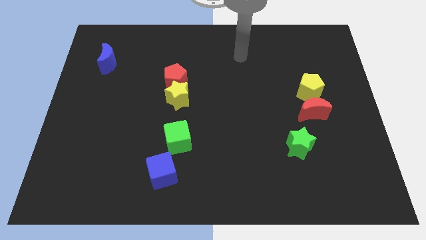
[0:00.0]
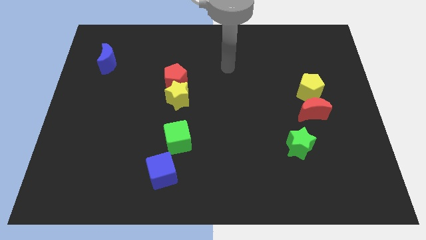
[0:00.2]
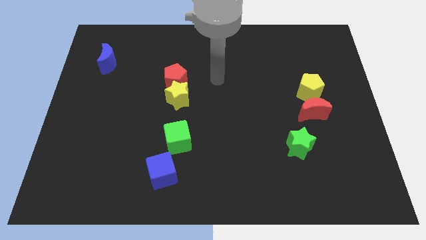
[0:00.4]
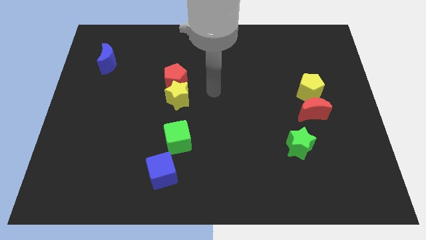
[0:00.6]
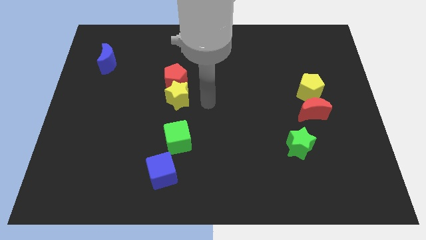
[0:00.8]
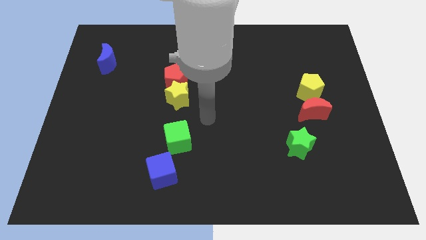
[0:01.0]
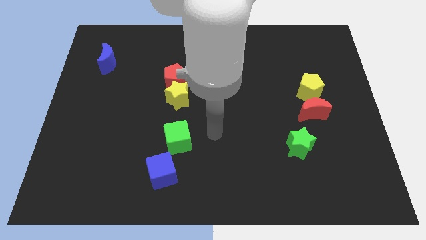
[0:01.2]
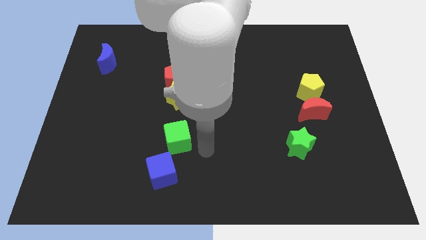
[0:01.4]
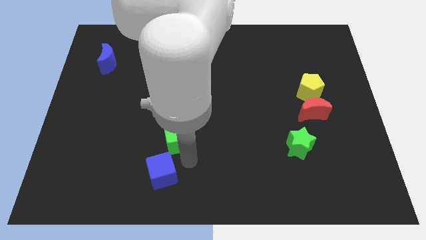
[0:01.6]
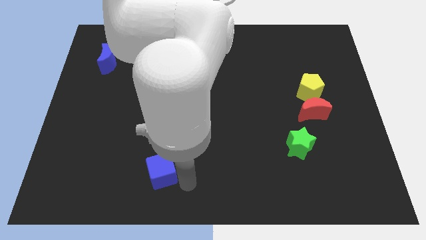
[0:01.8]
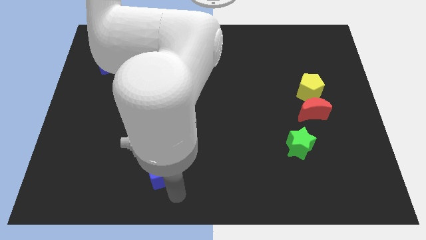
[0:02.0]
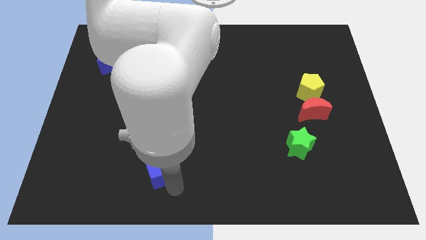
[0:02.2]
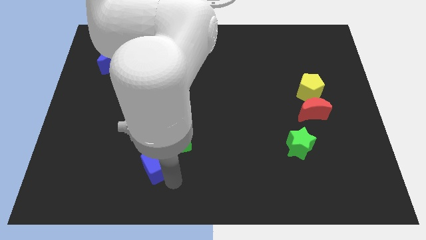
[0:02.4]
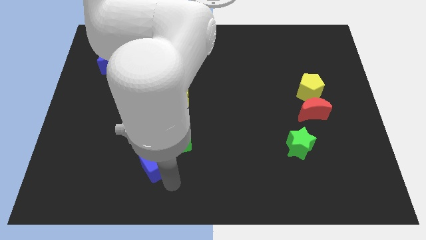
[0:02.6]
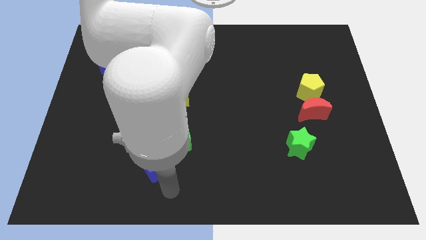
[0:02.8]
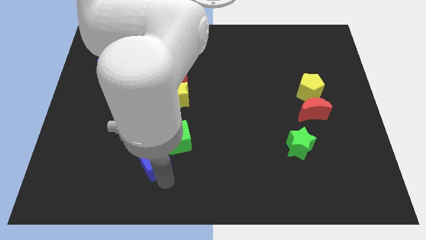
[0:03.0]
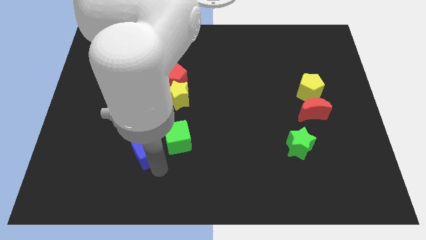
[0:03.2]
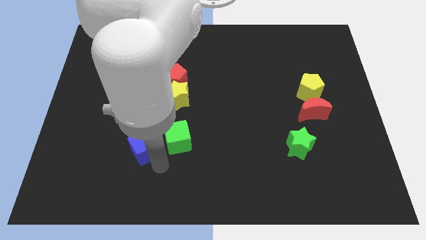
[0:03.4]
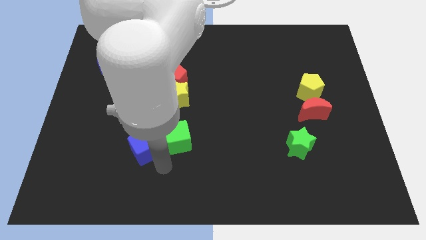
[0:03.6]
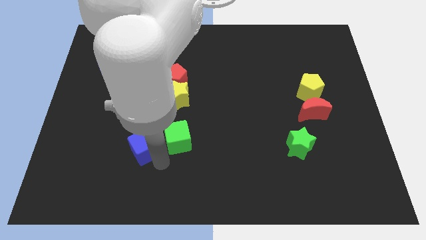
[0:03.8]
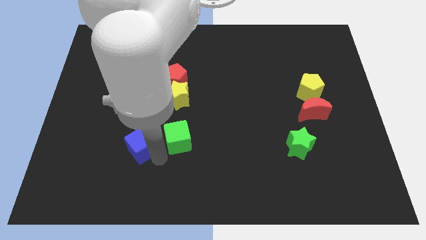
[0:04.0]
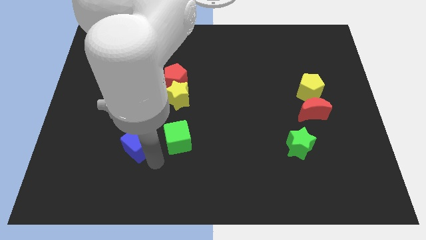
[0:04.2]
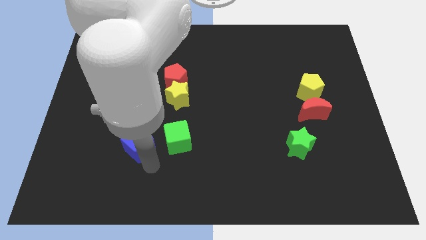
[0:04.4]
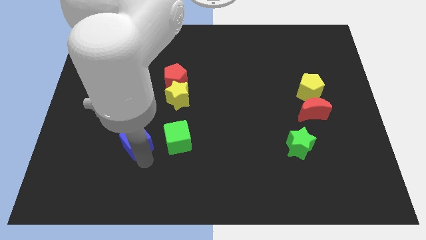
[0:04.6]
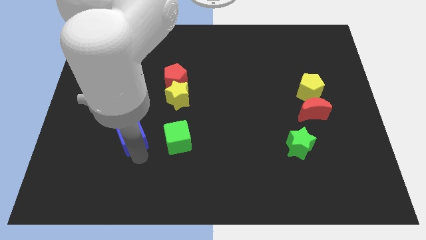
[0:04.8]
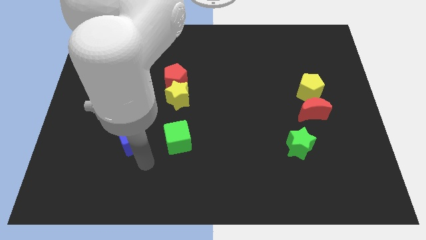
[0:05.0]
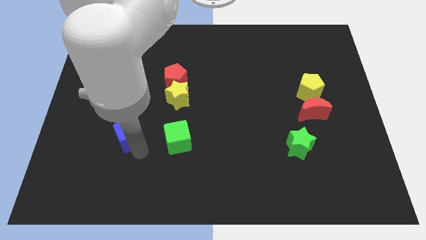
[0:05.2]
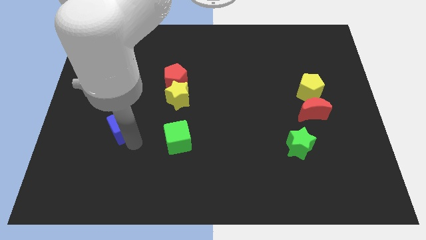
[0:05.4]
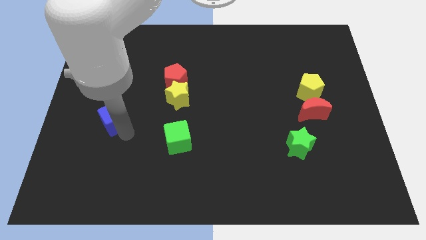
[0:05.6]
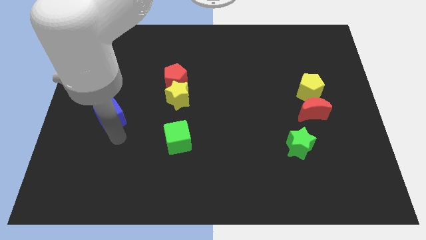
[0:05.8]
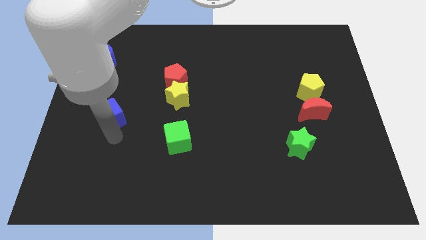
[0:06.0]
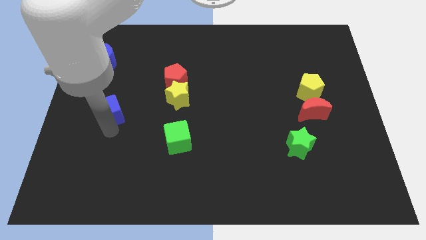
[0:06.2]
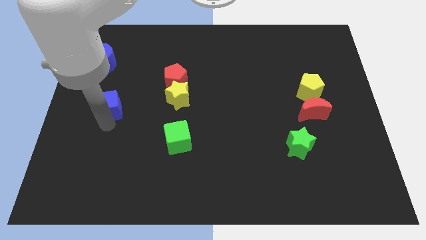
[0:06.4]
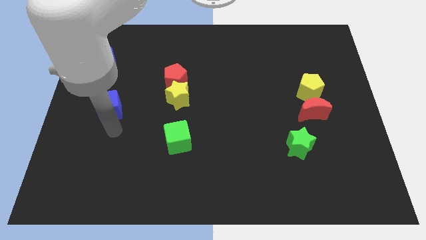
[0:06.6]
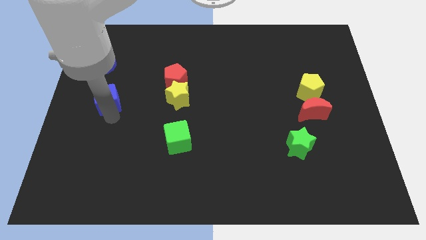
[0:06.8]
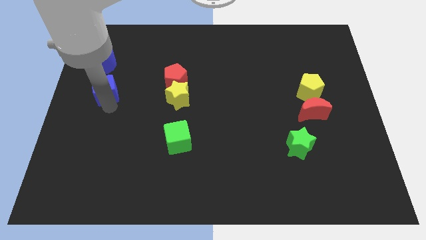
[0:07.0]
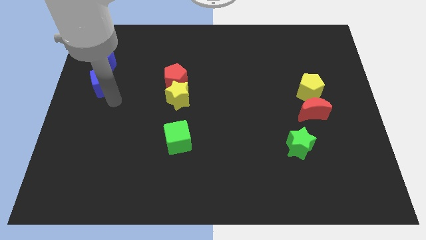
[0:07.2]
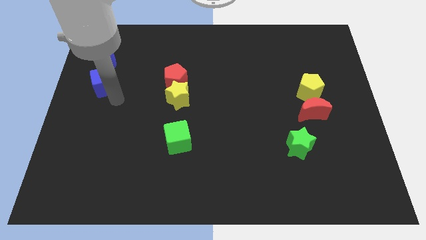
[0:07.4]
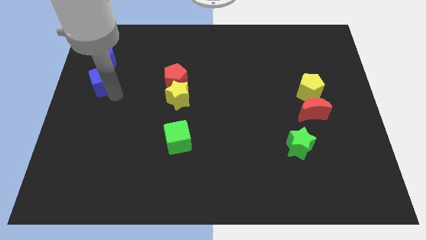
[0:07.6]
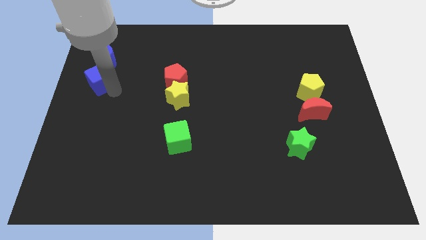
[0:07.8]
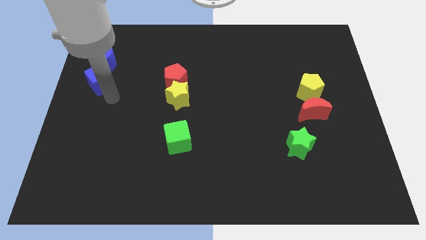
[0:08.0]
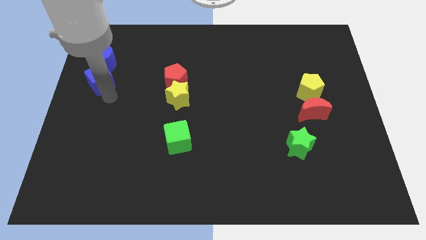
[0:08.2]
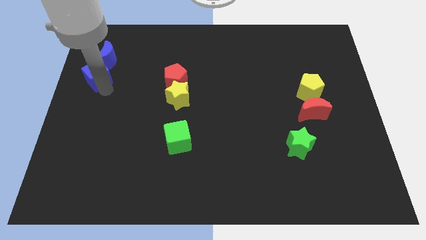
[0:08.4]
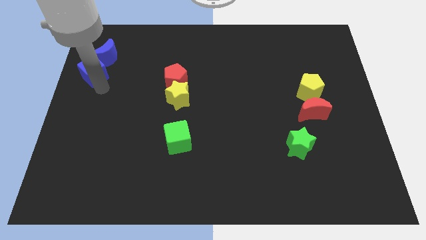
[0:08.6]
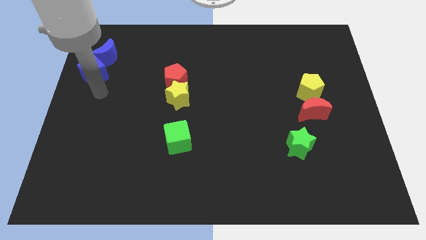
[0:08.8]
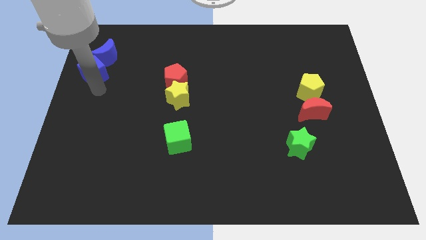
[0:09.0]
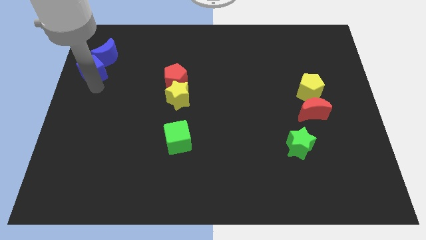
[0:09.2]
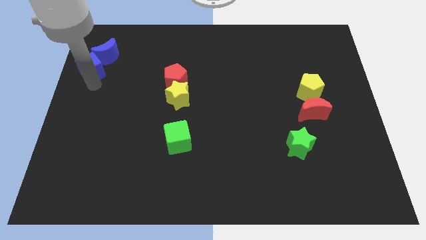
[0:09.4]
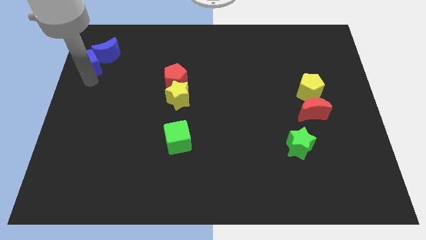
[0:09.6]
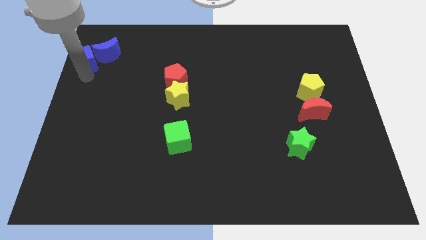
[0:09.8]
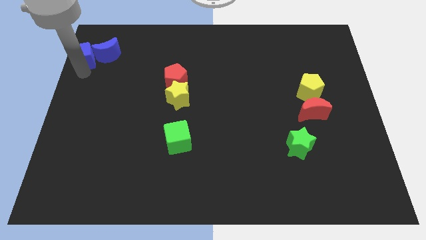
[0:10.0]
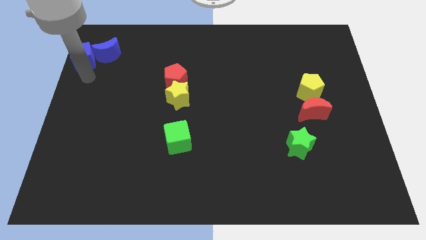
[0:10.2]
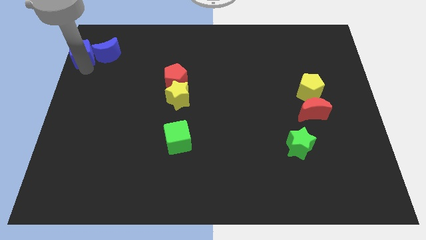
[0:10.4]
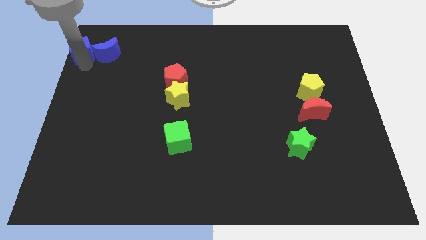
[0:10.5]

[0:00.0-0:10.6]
slide the blue cube to the top left

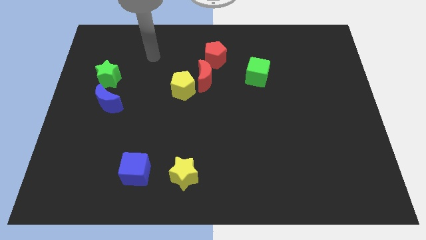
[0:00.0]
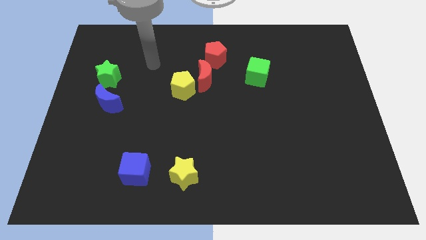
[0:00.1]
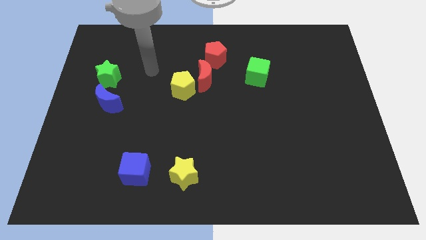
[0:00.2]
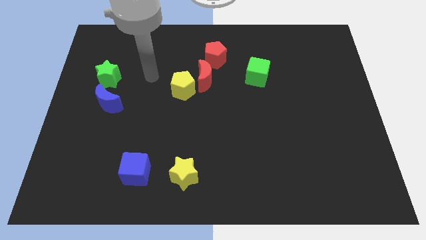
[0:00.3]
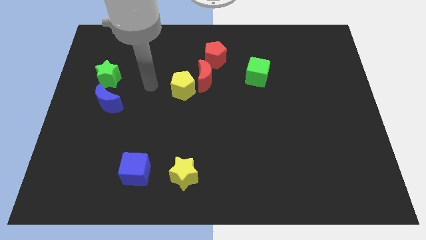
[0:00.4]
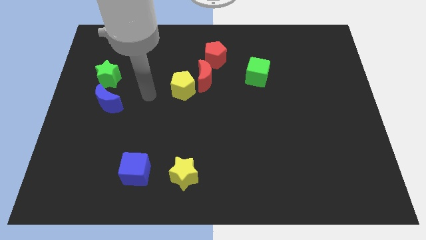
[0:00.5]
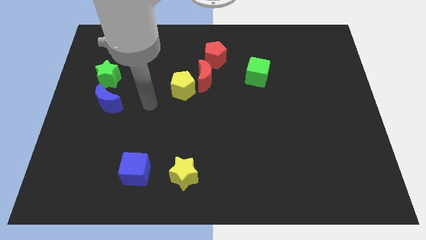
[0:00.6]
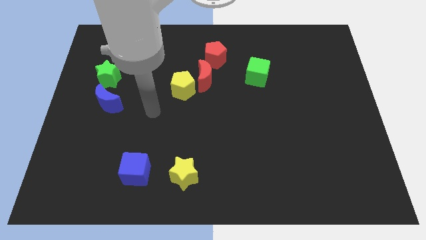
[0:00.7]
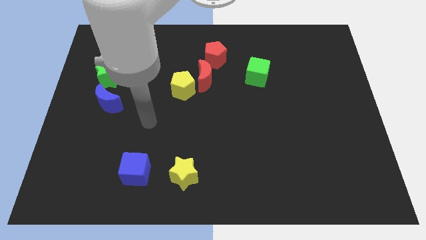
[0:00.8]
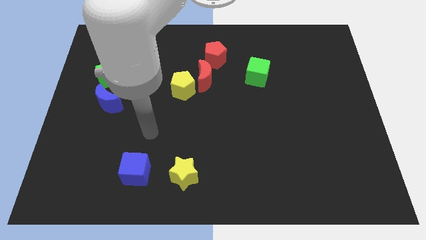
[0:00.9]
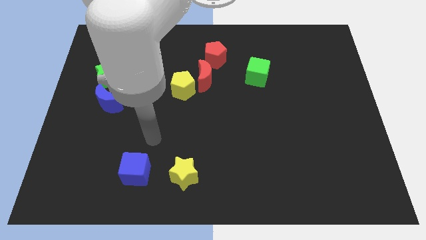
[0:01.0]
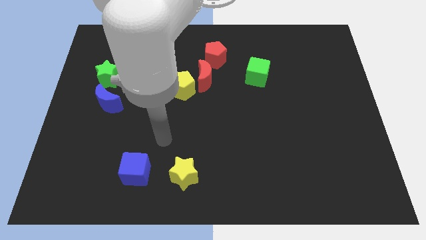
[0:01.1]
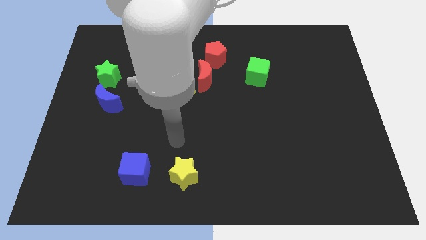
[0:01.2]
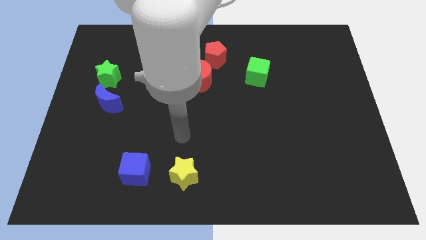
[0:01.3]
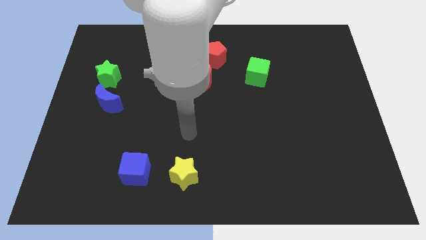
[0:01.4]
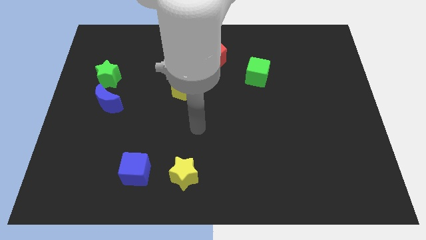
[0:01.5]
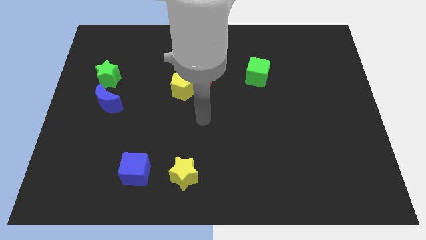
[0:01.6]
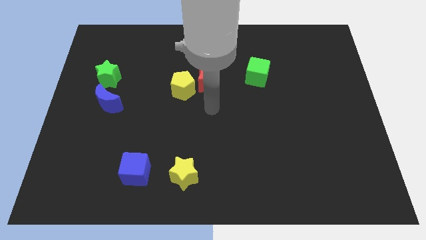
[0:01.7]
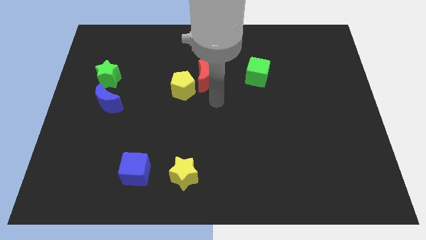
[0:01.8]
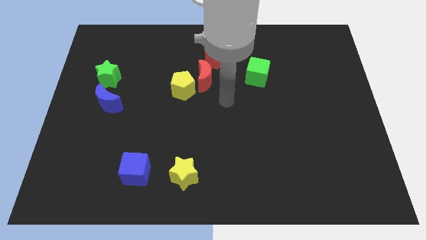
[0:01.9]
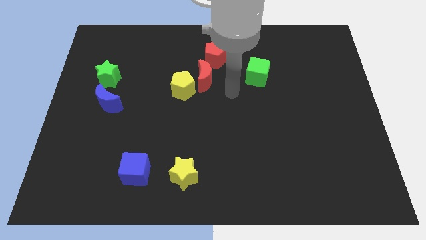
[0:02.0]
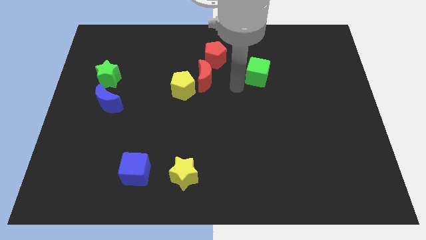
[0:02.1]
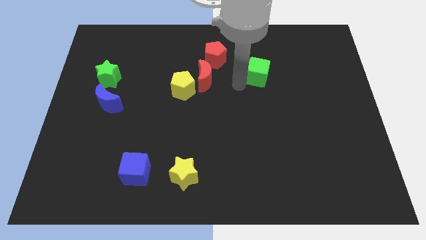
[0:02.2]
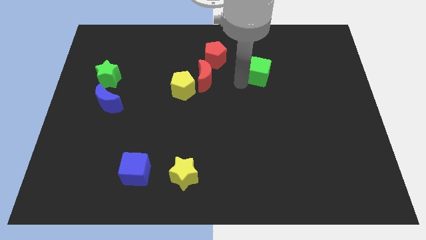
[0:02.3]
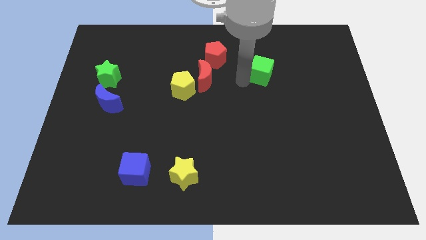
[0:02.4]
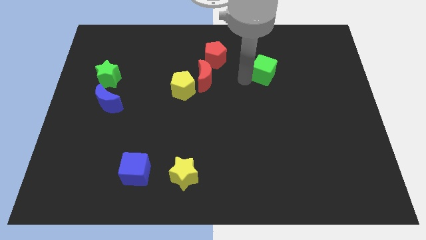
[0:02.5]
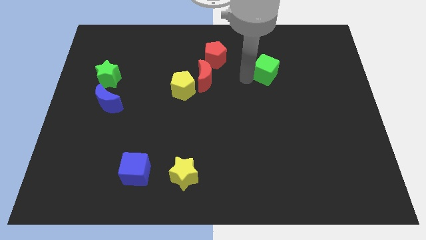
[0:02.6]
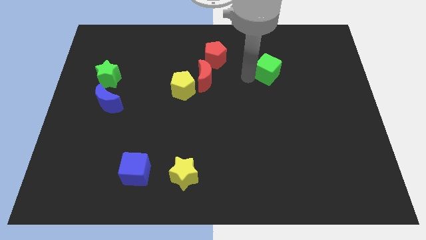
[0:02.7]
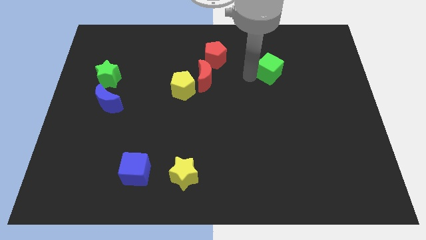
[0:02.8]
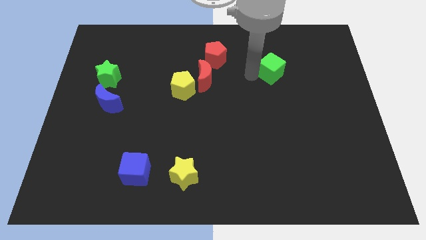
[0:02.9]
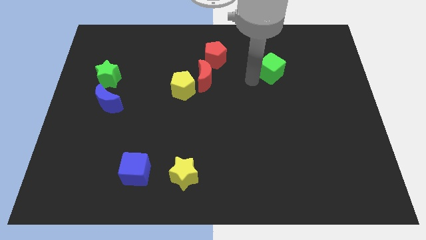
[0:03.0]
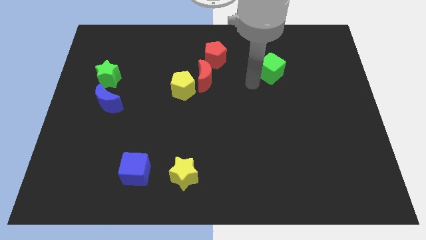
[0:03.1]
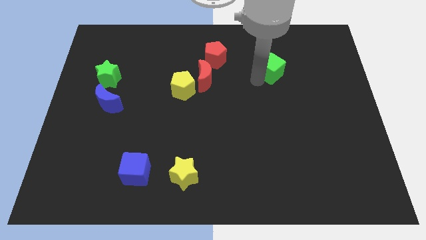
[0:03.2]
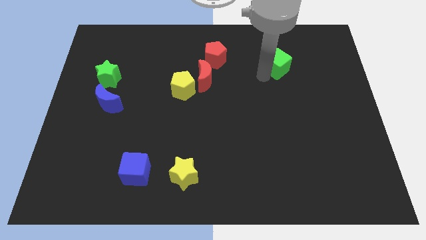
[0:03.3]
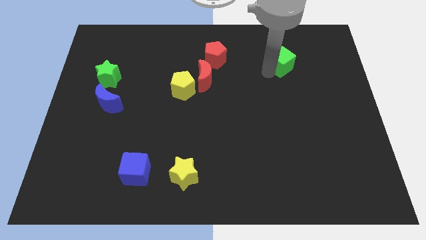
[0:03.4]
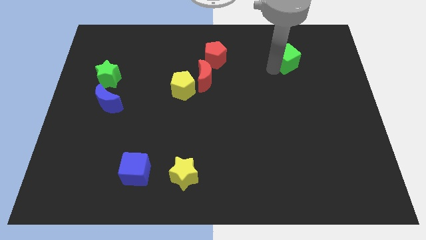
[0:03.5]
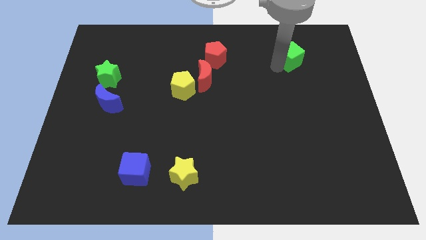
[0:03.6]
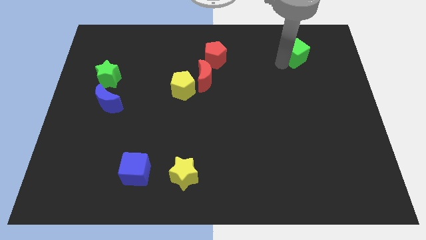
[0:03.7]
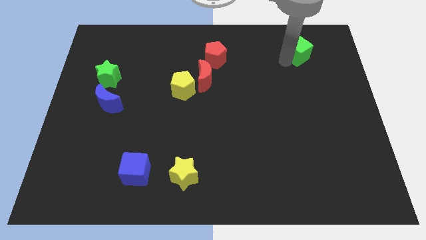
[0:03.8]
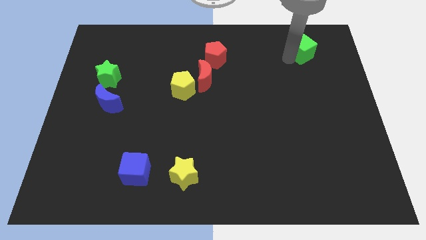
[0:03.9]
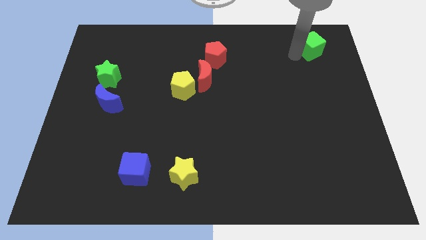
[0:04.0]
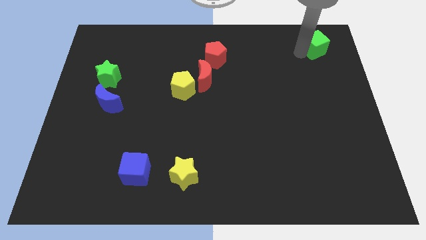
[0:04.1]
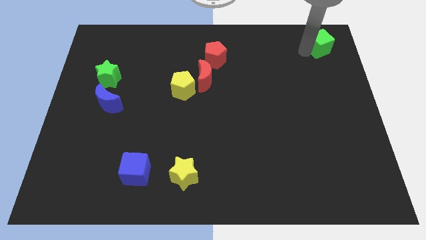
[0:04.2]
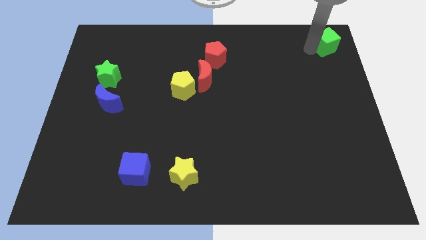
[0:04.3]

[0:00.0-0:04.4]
put the green cube to the top right of the board
